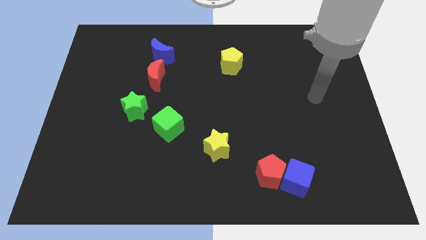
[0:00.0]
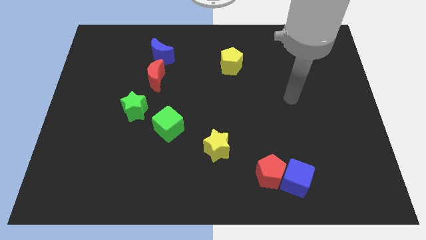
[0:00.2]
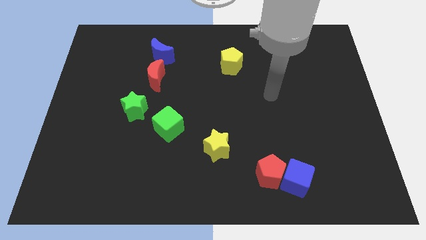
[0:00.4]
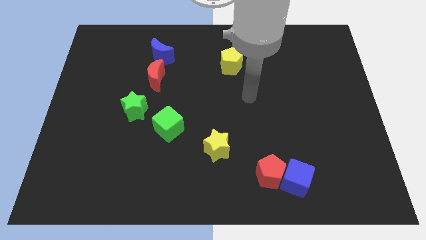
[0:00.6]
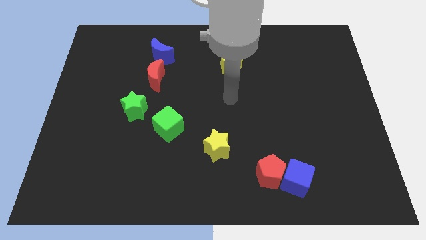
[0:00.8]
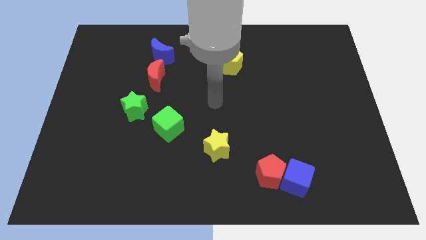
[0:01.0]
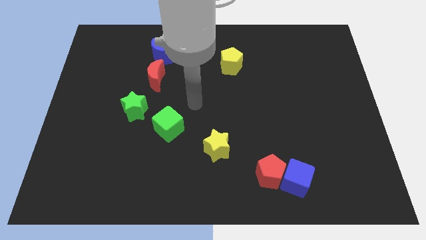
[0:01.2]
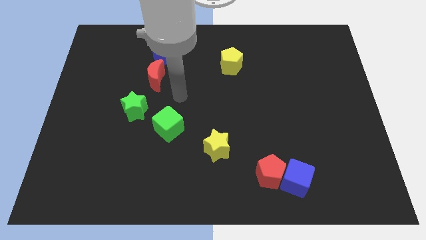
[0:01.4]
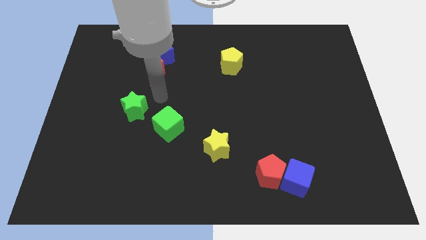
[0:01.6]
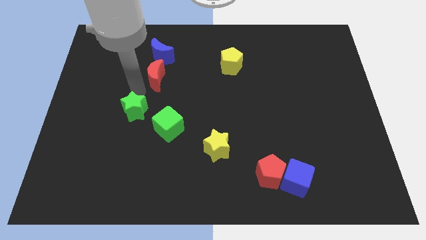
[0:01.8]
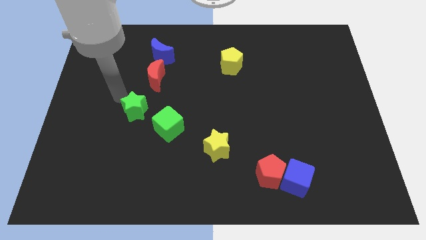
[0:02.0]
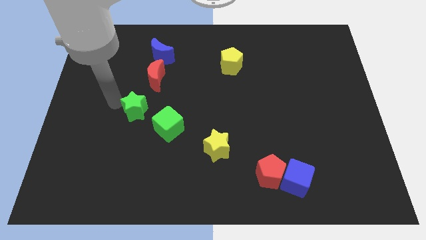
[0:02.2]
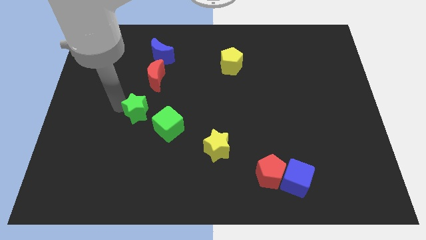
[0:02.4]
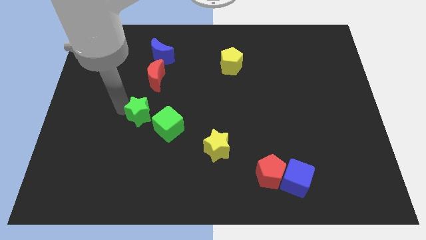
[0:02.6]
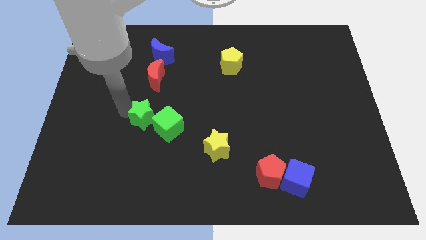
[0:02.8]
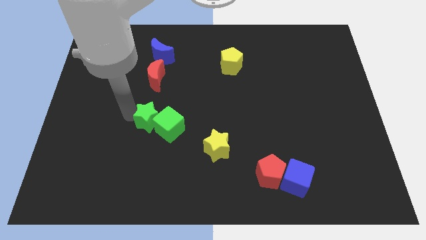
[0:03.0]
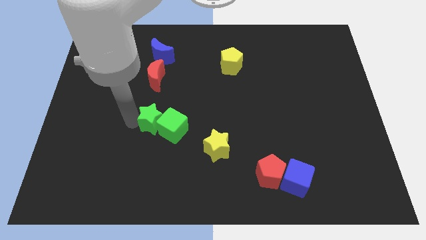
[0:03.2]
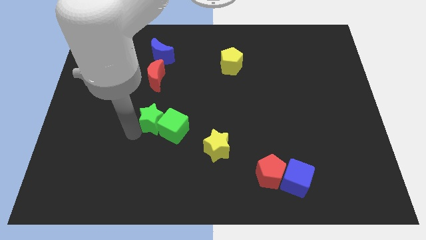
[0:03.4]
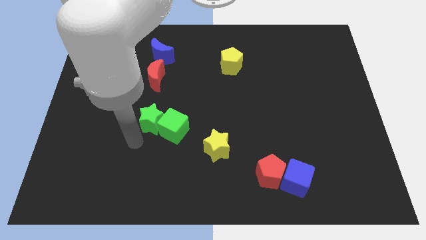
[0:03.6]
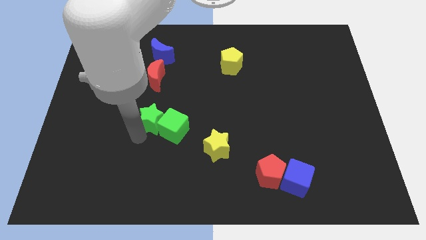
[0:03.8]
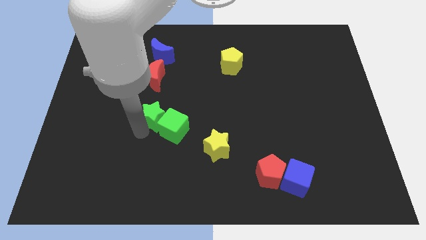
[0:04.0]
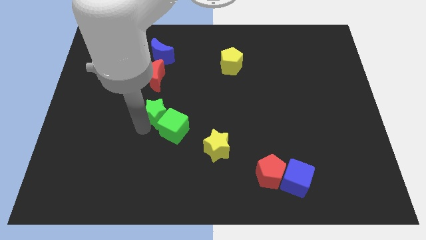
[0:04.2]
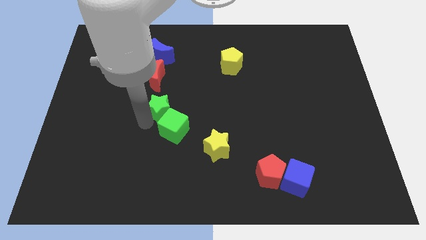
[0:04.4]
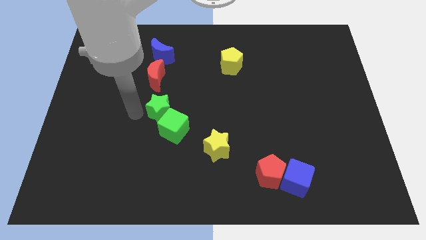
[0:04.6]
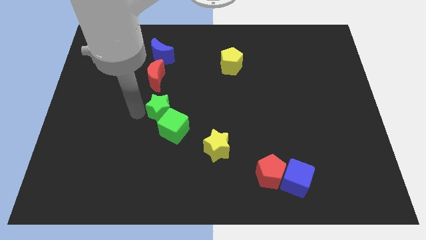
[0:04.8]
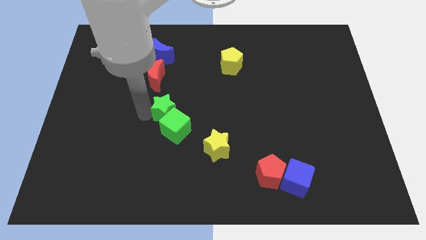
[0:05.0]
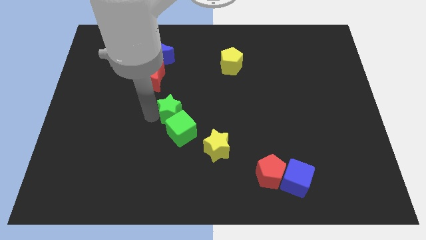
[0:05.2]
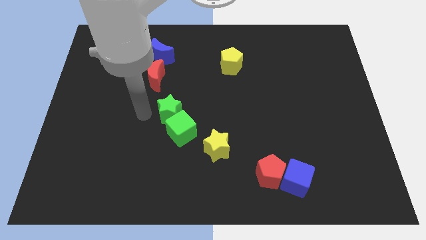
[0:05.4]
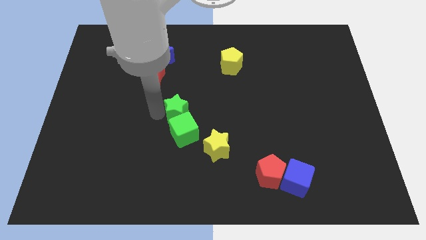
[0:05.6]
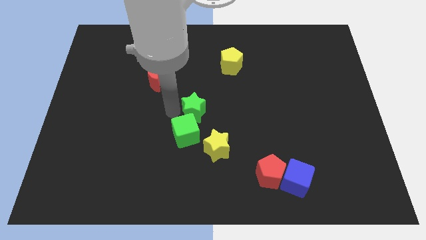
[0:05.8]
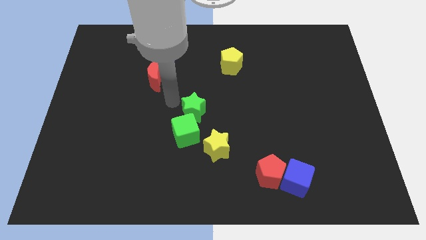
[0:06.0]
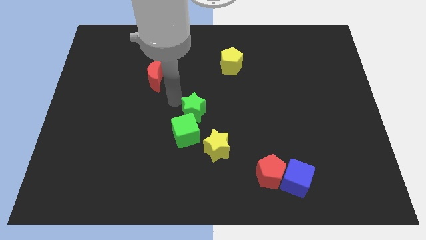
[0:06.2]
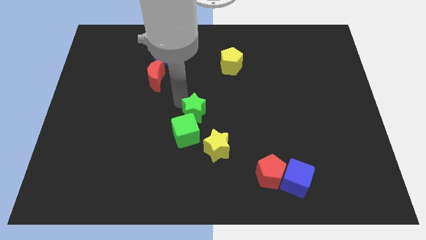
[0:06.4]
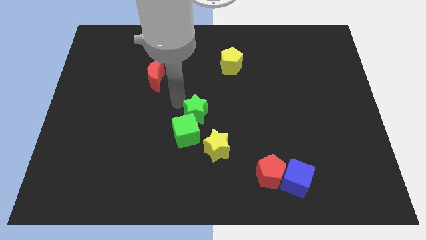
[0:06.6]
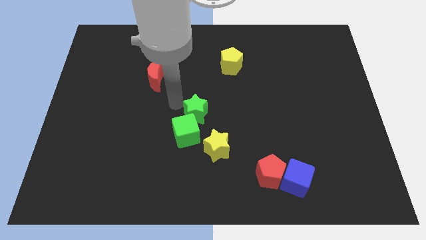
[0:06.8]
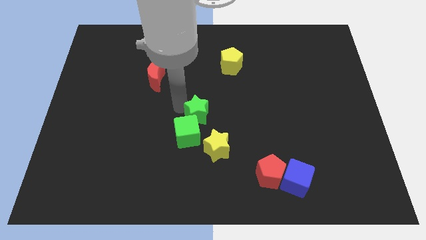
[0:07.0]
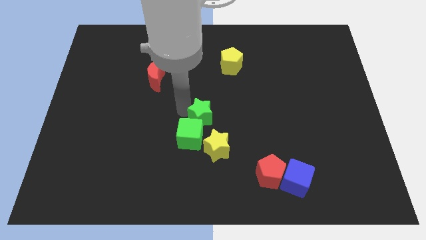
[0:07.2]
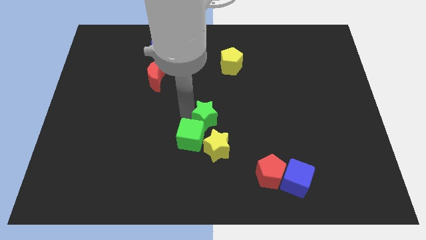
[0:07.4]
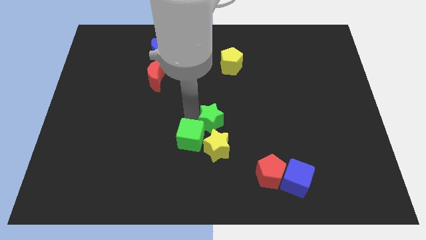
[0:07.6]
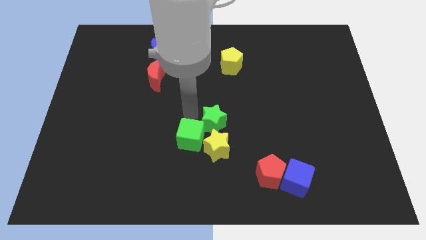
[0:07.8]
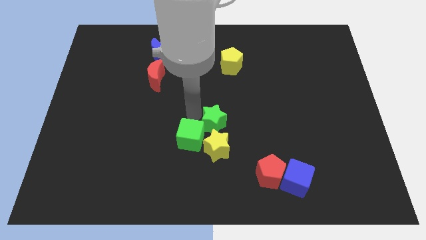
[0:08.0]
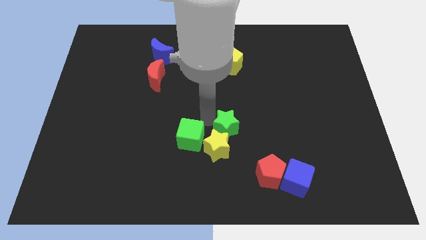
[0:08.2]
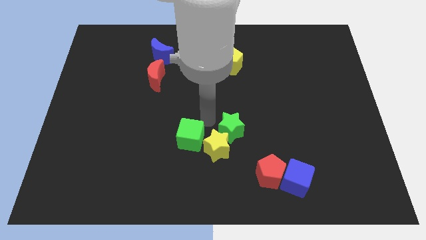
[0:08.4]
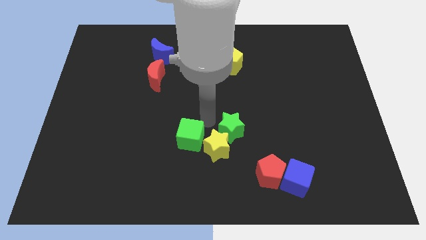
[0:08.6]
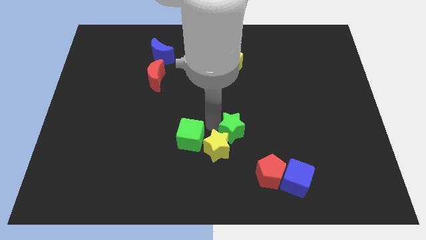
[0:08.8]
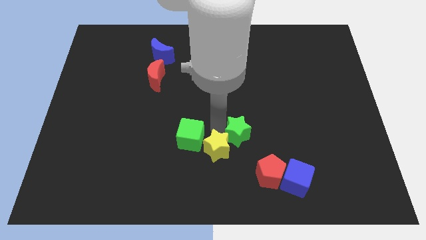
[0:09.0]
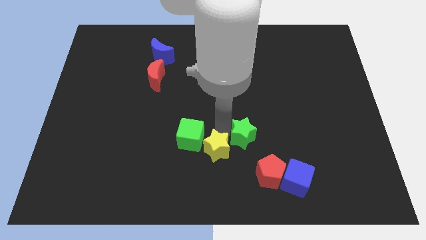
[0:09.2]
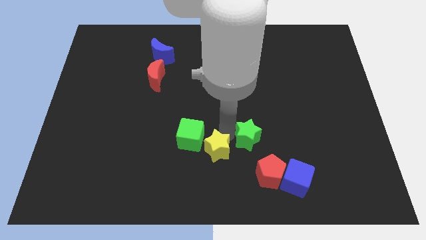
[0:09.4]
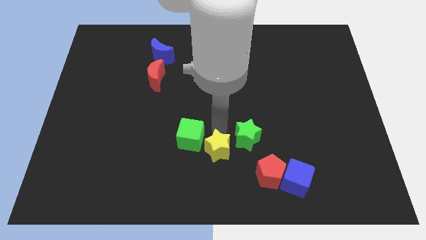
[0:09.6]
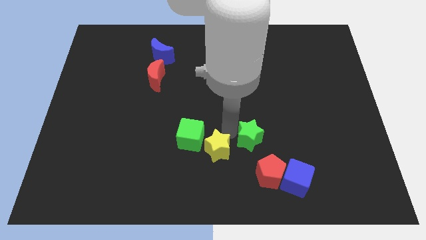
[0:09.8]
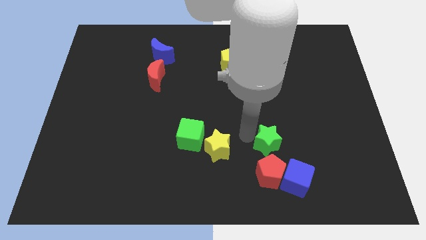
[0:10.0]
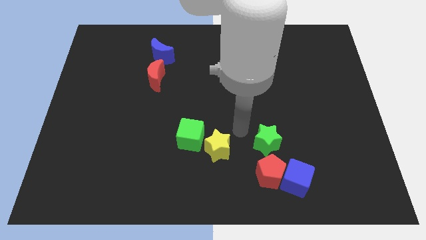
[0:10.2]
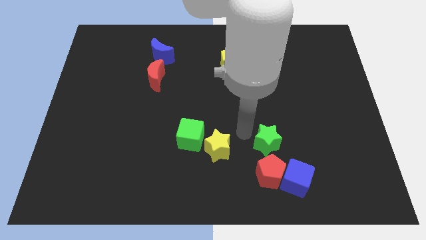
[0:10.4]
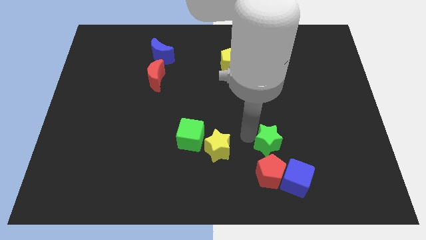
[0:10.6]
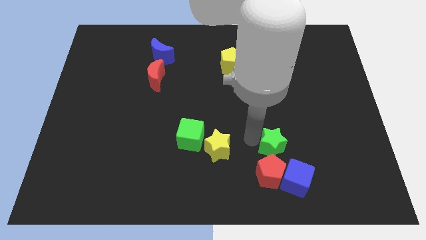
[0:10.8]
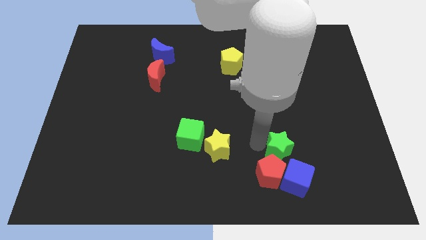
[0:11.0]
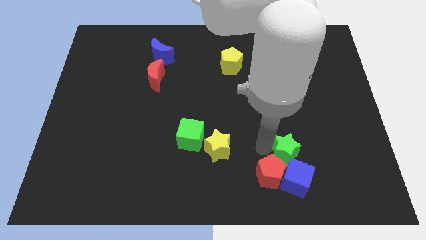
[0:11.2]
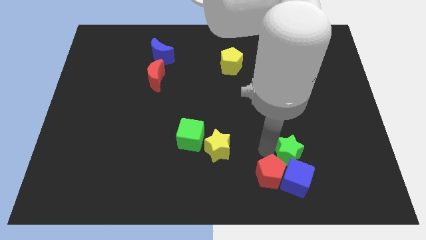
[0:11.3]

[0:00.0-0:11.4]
put the green star to the right of the red pentagon

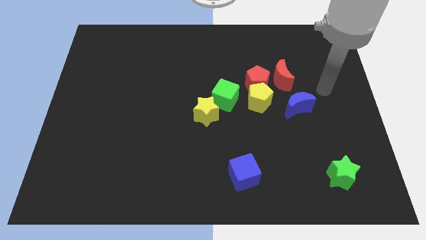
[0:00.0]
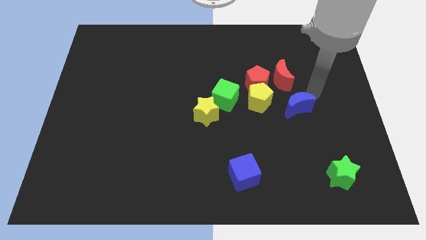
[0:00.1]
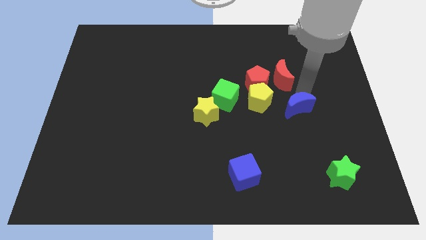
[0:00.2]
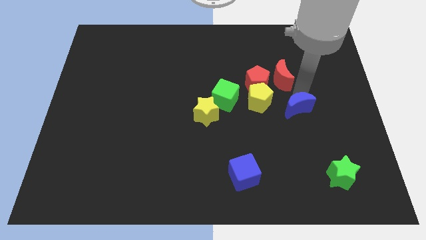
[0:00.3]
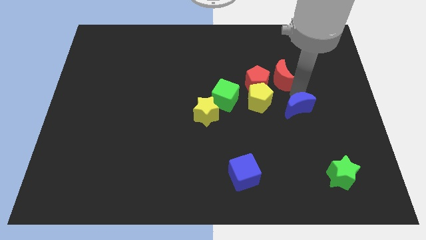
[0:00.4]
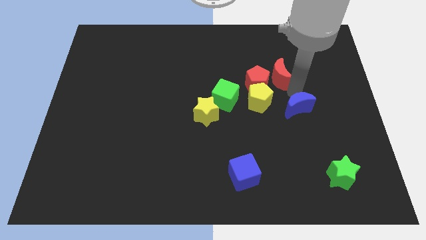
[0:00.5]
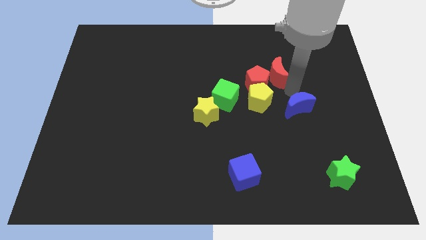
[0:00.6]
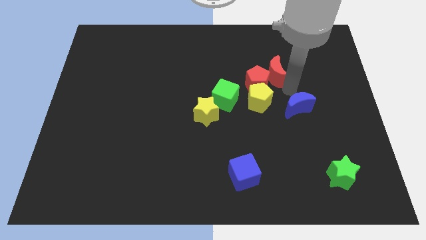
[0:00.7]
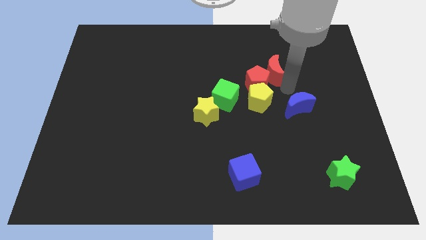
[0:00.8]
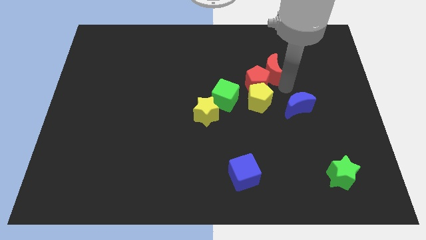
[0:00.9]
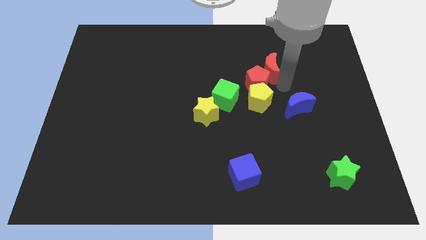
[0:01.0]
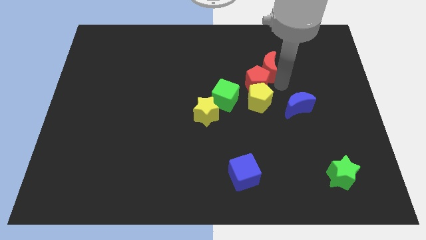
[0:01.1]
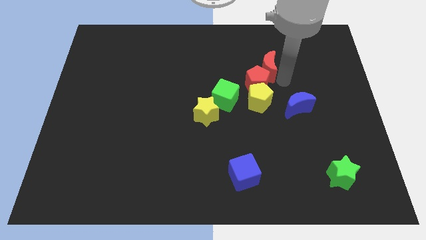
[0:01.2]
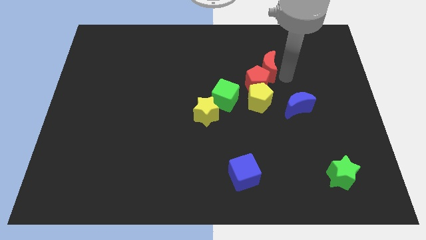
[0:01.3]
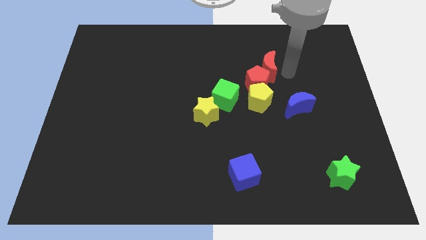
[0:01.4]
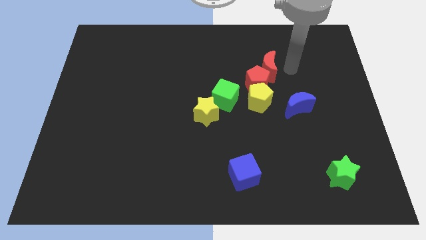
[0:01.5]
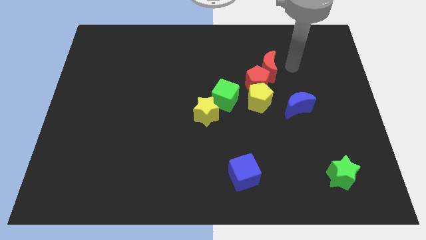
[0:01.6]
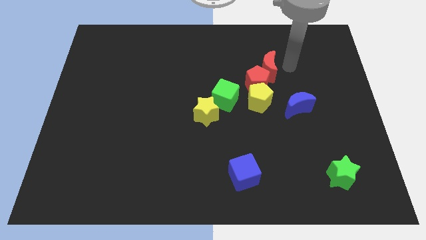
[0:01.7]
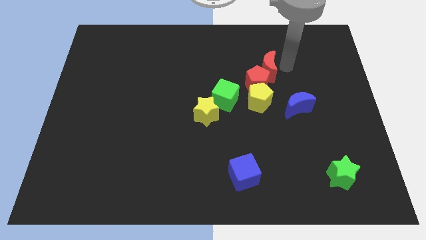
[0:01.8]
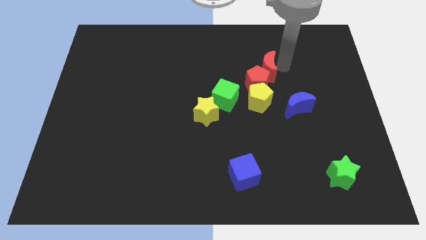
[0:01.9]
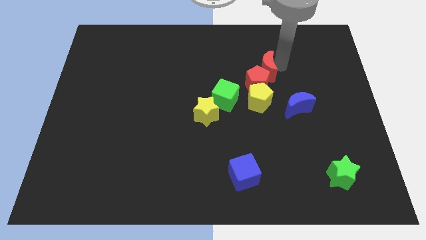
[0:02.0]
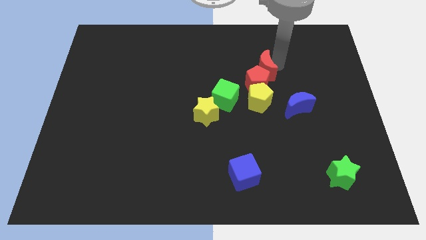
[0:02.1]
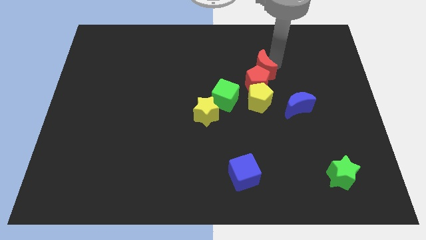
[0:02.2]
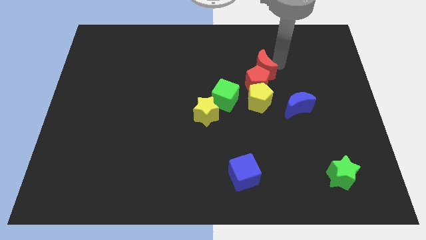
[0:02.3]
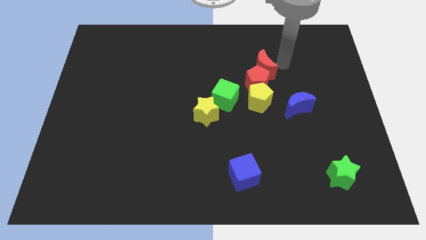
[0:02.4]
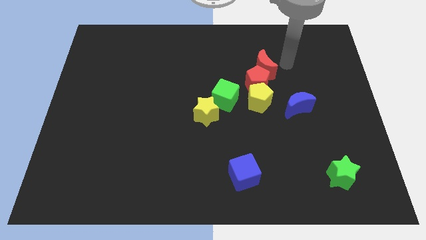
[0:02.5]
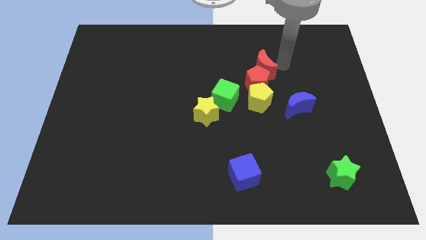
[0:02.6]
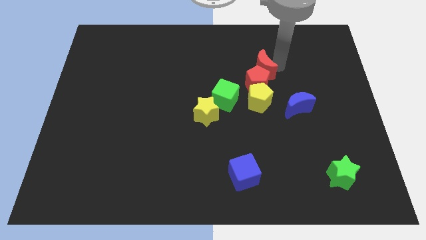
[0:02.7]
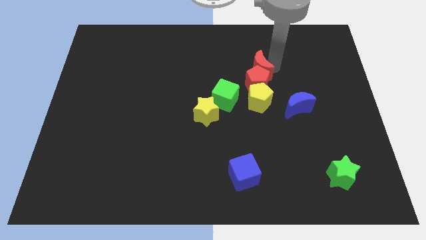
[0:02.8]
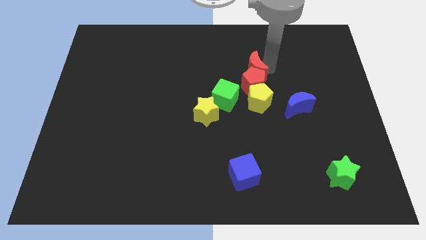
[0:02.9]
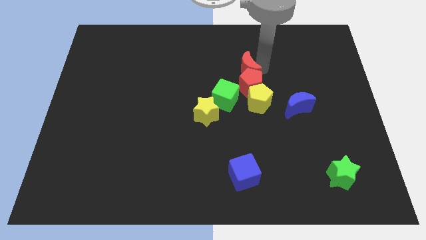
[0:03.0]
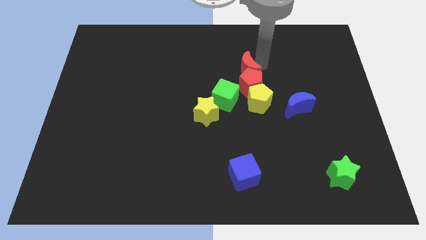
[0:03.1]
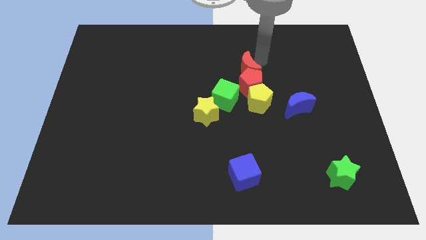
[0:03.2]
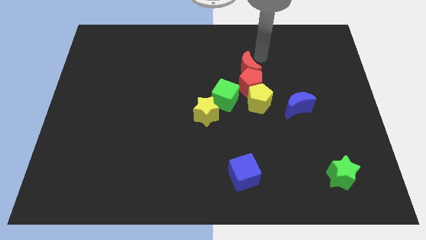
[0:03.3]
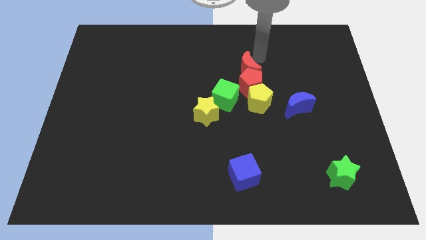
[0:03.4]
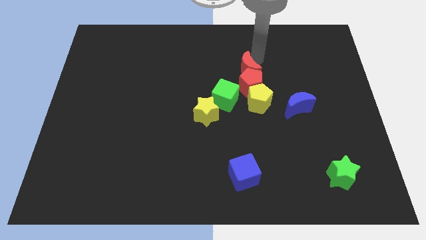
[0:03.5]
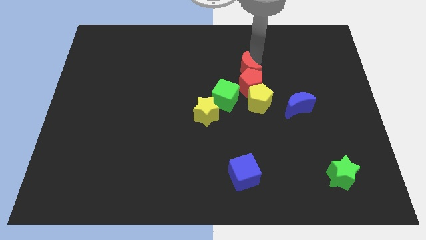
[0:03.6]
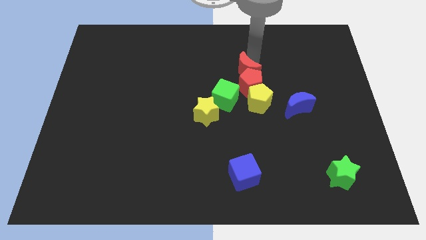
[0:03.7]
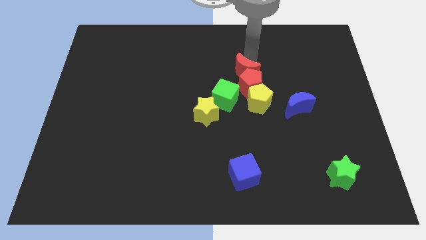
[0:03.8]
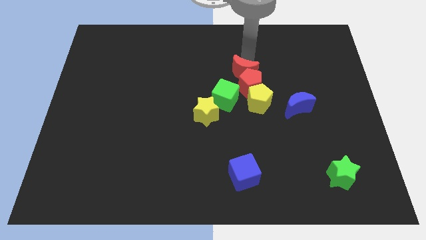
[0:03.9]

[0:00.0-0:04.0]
put the red moon to the top left side of the yellow pentagon
